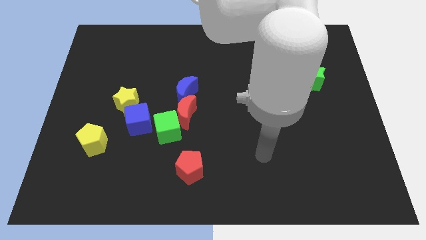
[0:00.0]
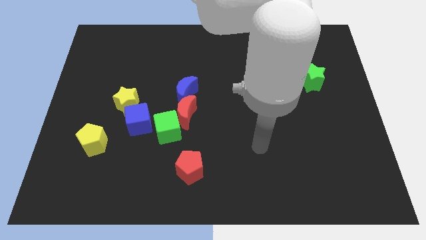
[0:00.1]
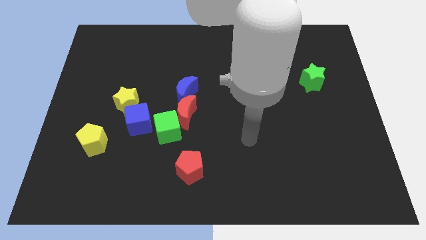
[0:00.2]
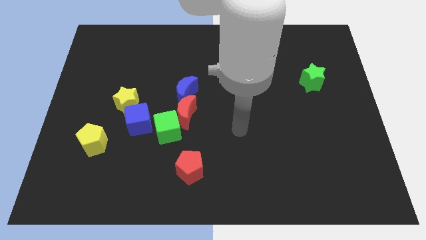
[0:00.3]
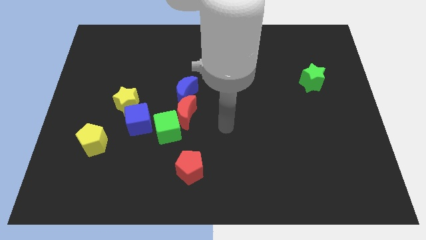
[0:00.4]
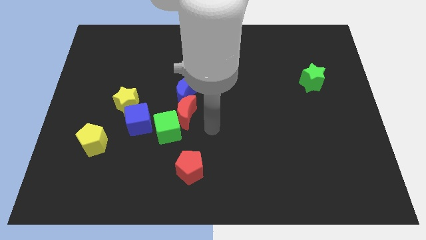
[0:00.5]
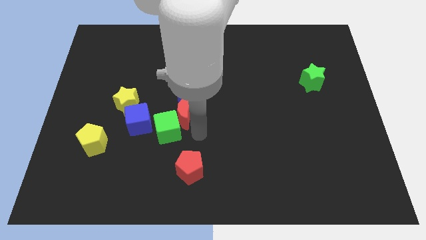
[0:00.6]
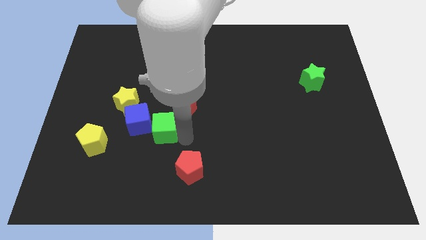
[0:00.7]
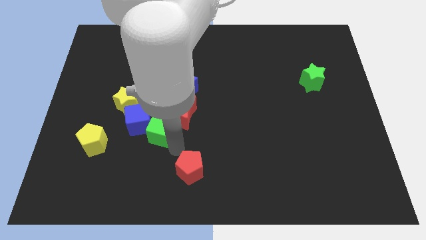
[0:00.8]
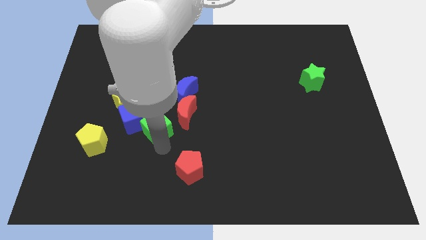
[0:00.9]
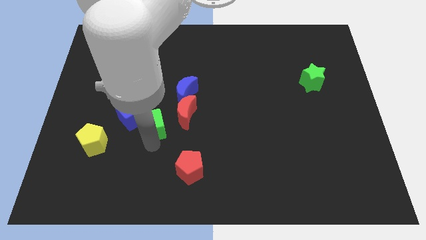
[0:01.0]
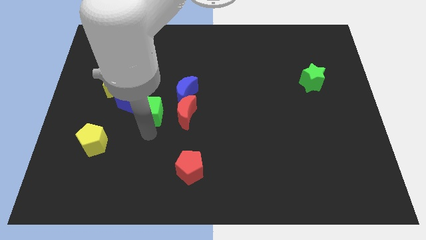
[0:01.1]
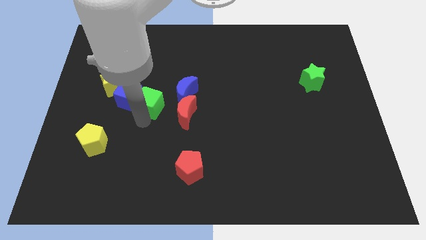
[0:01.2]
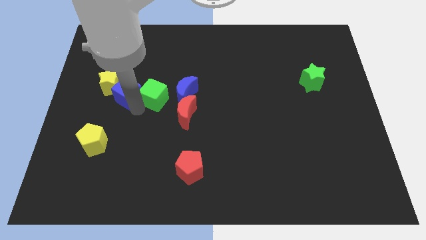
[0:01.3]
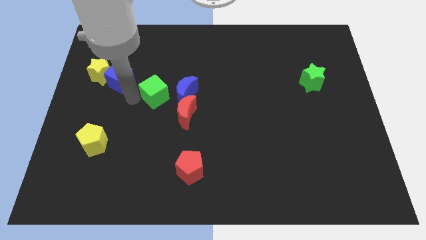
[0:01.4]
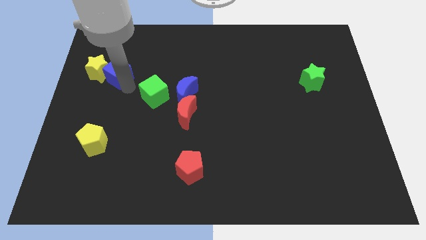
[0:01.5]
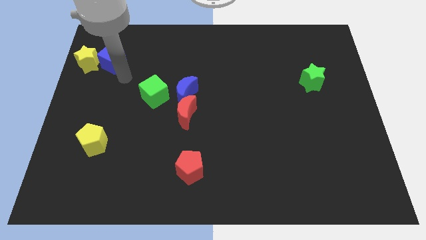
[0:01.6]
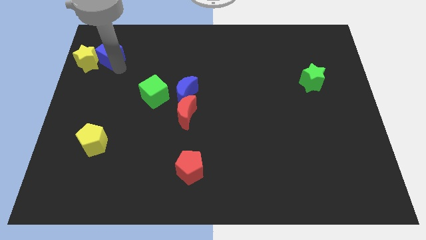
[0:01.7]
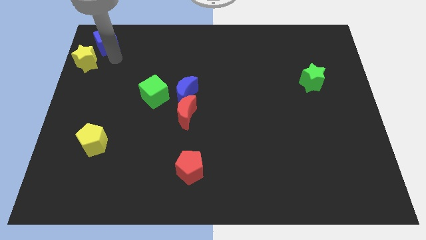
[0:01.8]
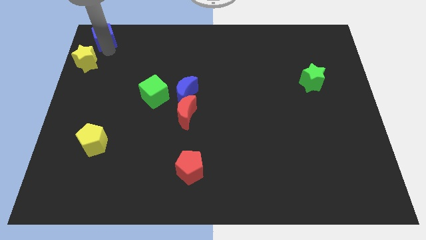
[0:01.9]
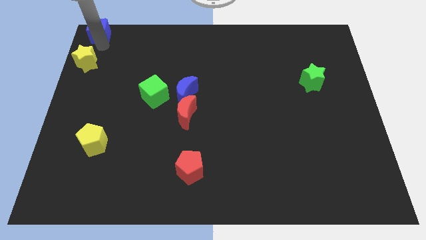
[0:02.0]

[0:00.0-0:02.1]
pull the yellow star apart from the blue cube

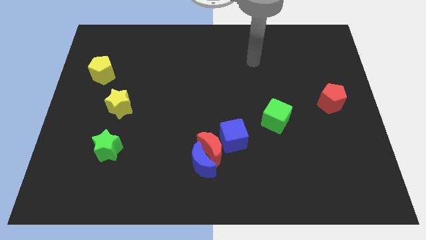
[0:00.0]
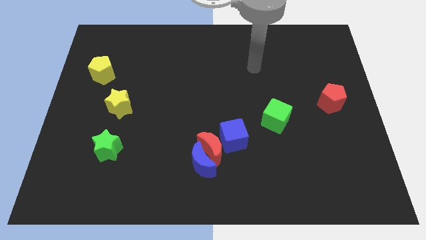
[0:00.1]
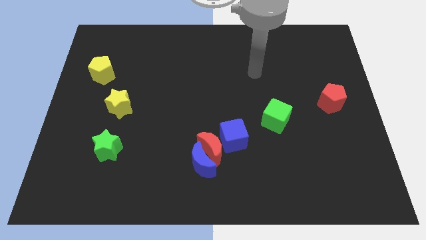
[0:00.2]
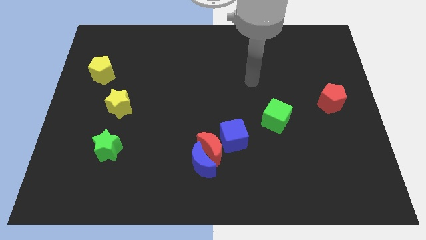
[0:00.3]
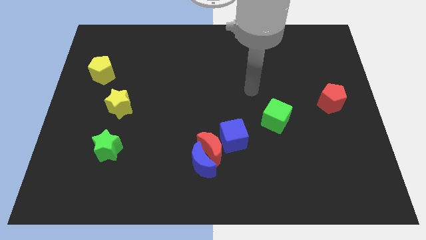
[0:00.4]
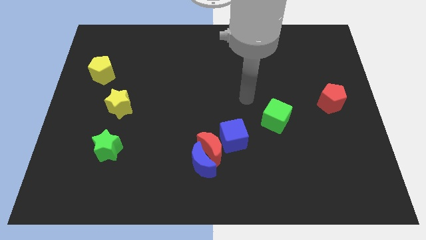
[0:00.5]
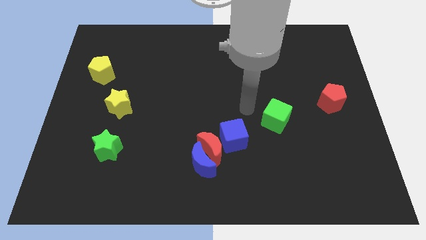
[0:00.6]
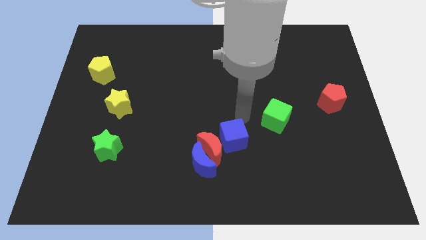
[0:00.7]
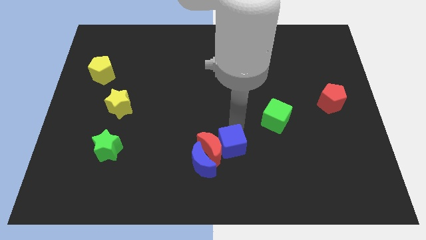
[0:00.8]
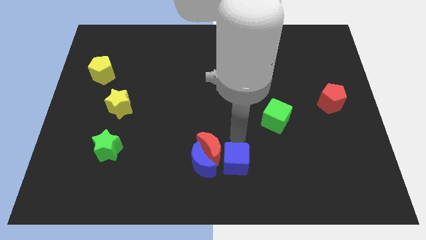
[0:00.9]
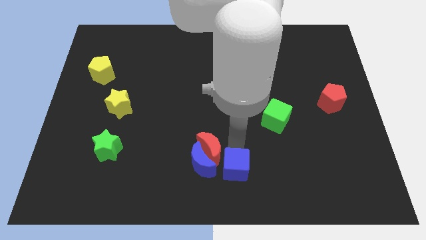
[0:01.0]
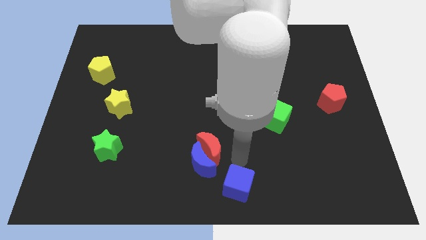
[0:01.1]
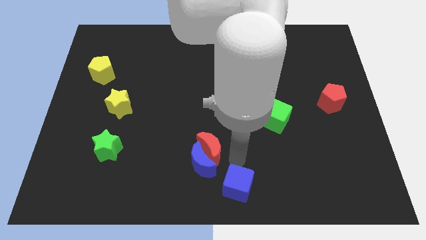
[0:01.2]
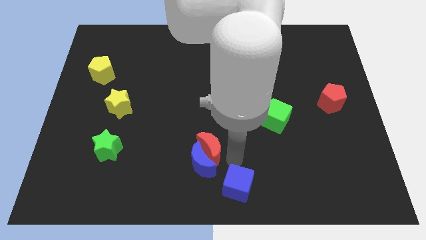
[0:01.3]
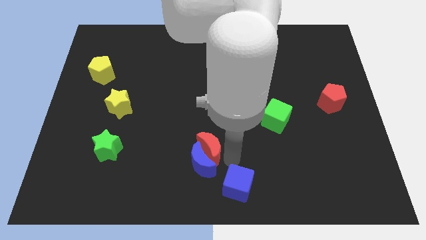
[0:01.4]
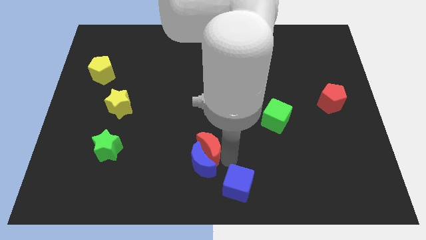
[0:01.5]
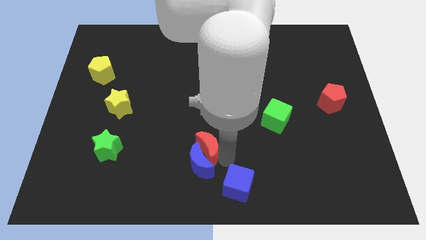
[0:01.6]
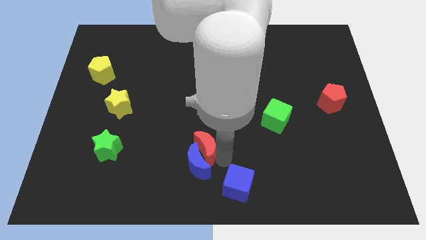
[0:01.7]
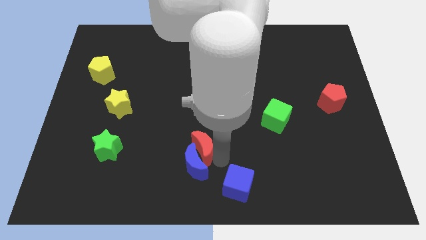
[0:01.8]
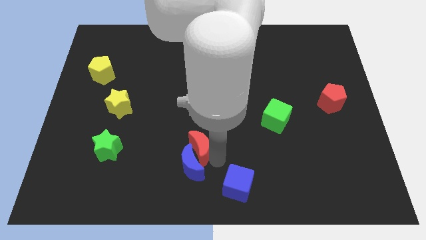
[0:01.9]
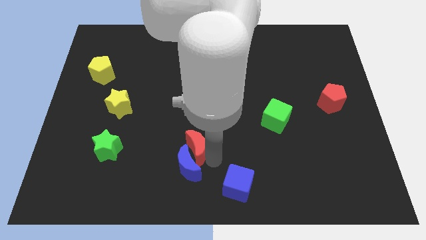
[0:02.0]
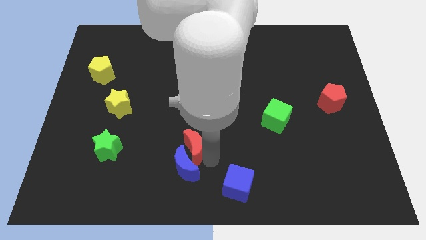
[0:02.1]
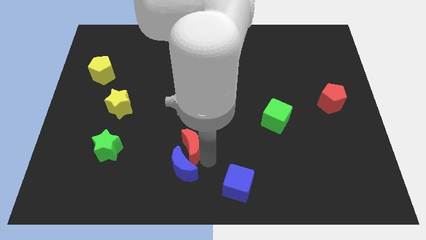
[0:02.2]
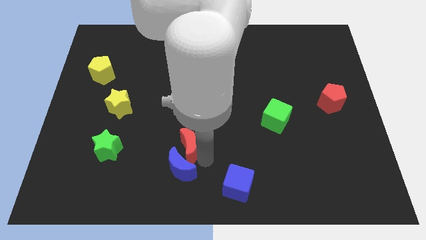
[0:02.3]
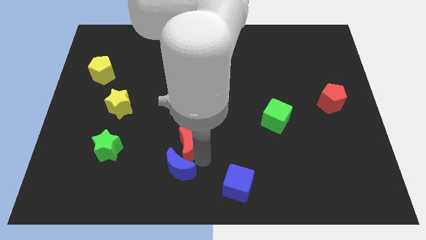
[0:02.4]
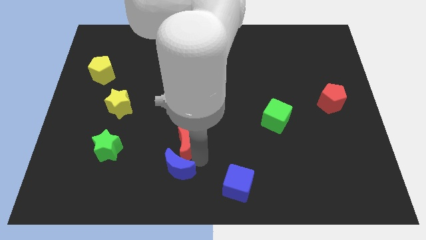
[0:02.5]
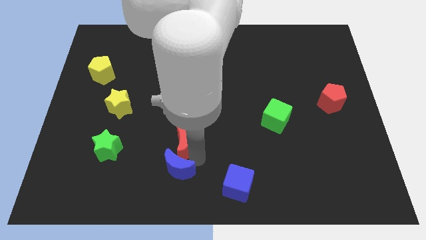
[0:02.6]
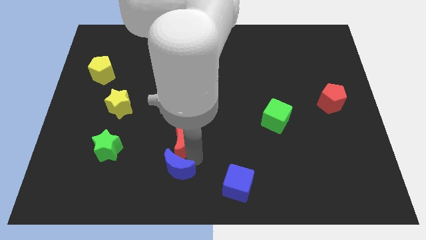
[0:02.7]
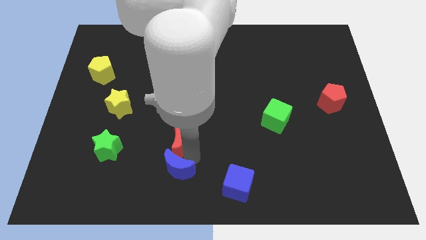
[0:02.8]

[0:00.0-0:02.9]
move the red moon away from the blue moon and blue cube

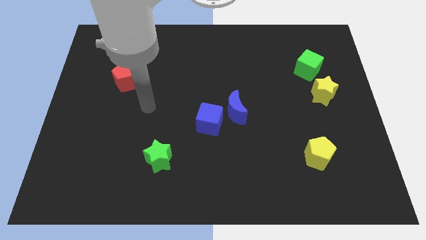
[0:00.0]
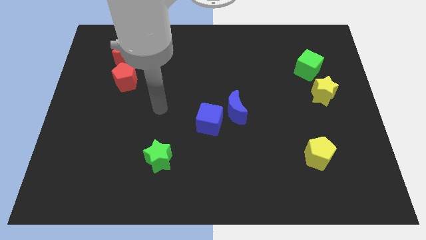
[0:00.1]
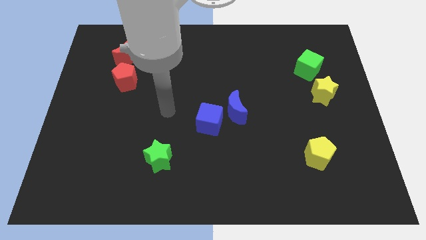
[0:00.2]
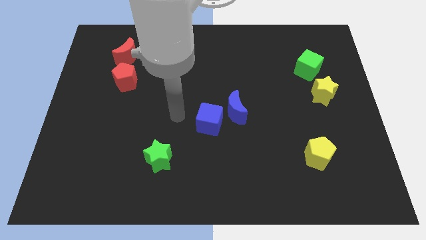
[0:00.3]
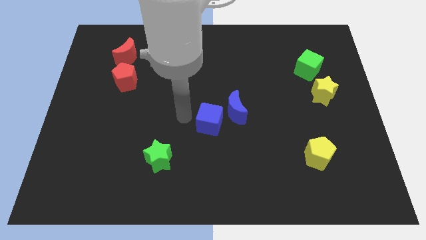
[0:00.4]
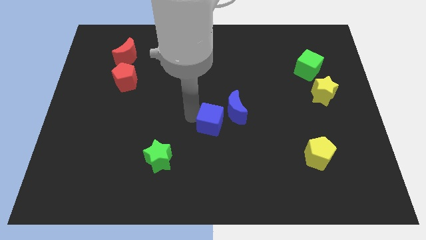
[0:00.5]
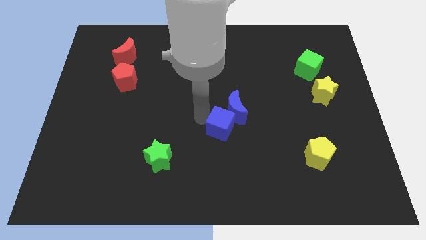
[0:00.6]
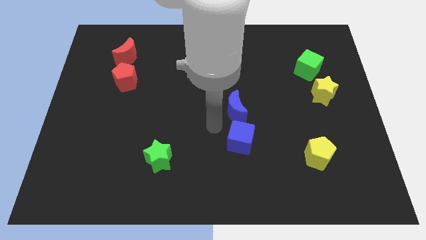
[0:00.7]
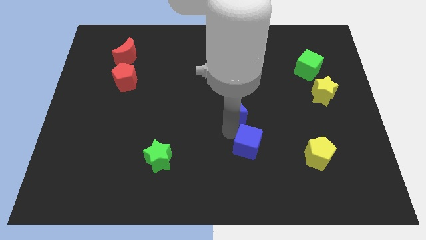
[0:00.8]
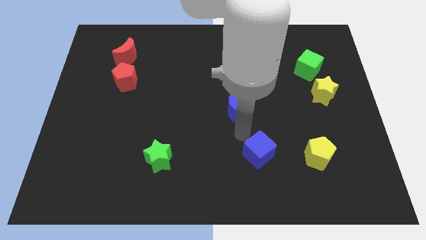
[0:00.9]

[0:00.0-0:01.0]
separate the blue moon from the blue cube

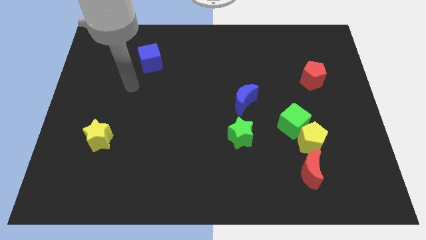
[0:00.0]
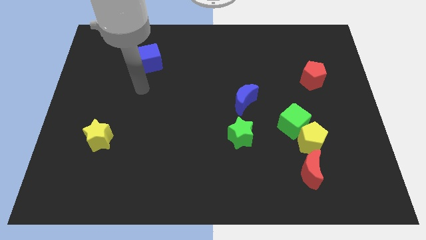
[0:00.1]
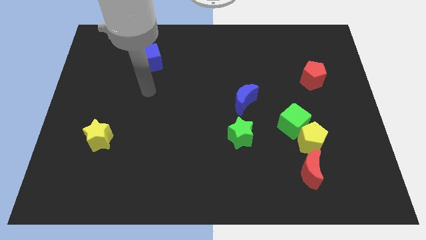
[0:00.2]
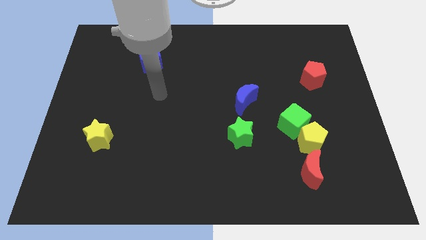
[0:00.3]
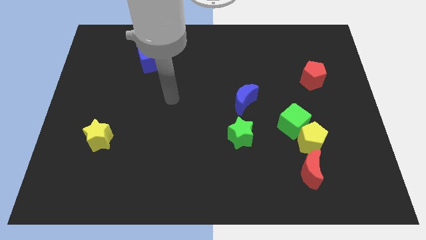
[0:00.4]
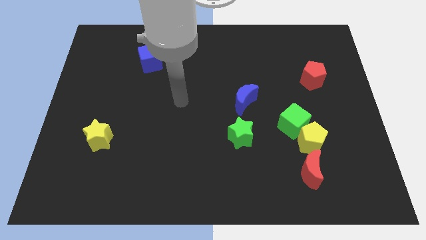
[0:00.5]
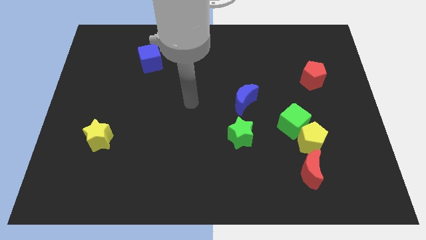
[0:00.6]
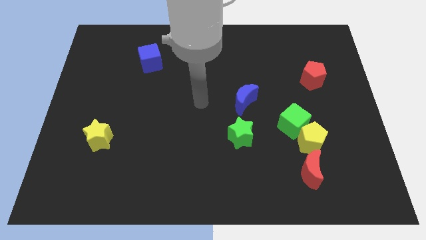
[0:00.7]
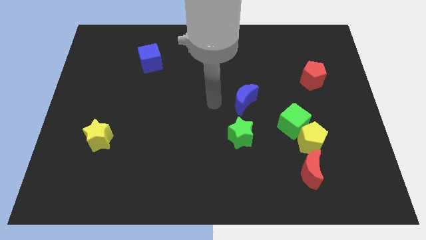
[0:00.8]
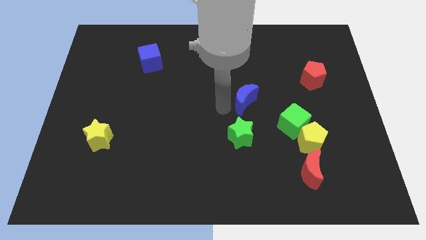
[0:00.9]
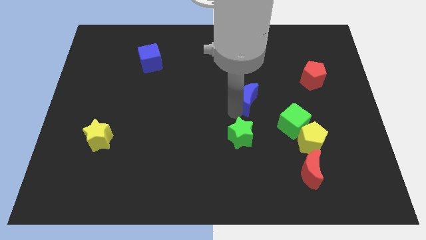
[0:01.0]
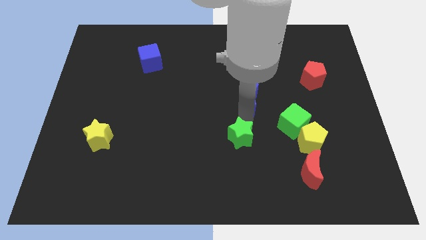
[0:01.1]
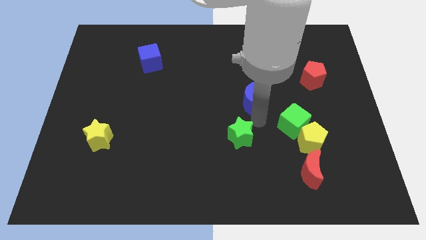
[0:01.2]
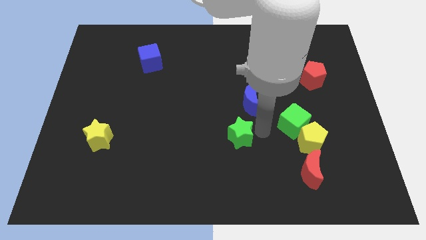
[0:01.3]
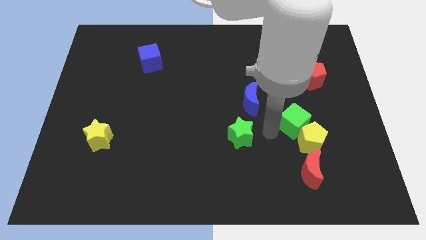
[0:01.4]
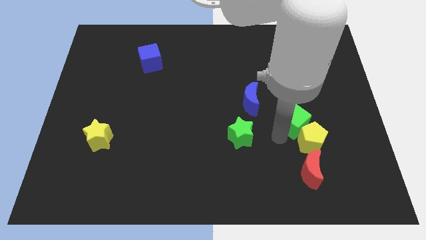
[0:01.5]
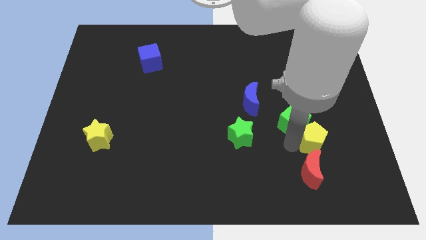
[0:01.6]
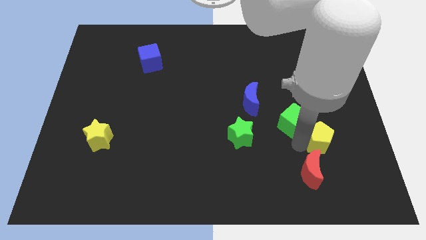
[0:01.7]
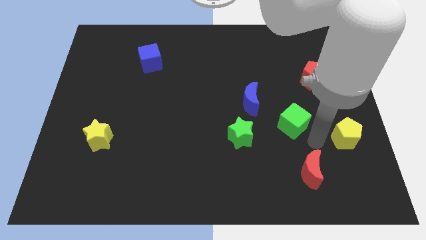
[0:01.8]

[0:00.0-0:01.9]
separate the green cube from the yellow pentagon

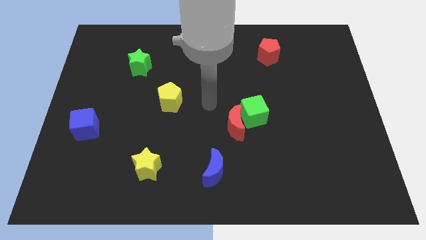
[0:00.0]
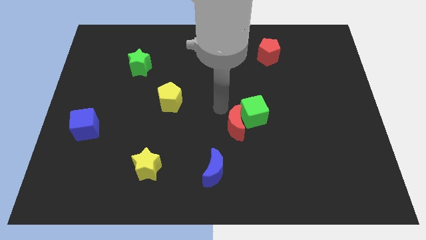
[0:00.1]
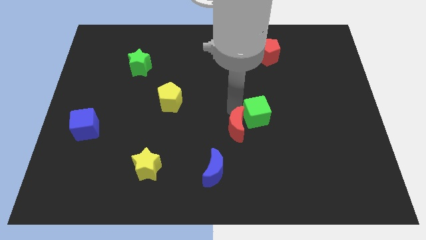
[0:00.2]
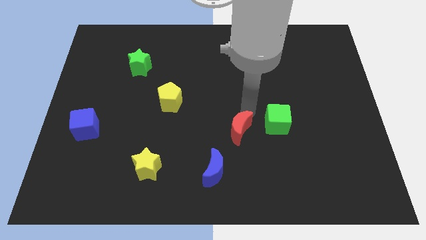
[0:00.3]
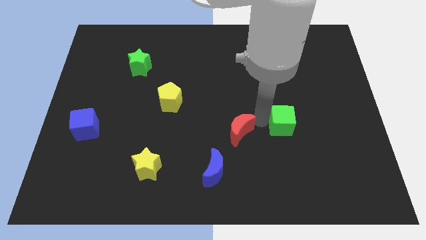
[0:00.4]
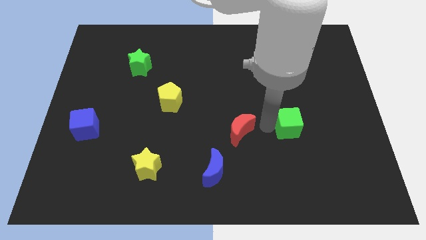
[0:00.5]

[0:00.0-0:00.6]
pull the red moon apart from the green cube

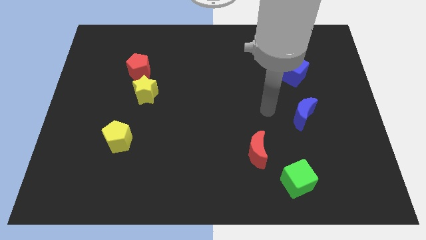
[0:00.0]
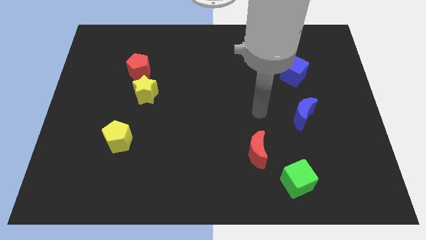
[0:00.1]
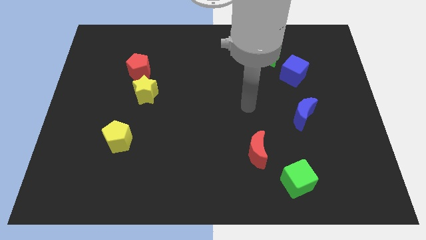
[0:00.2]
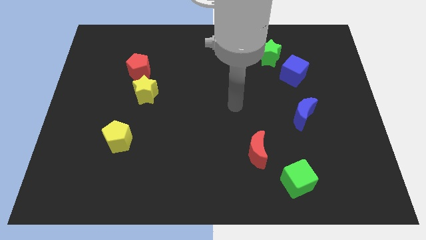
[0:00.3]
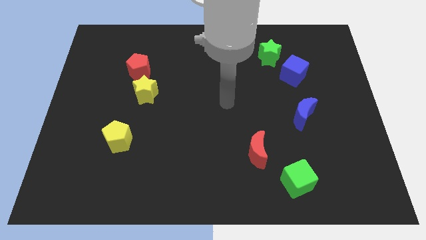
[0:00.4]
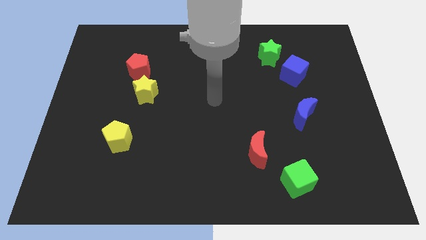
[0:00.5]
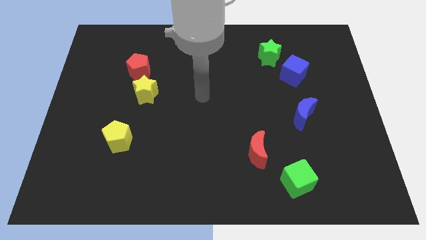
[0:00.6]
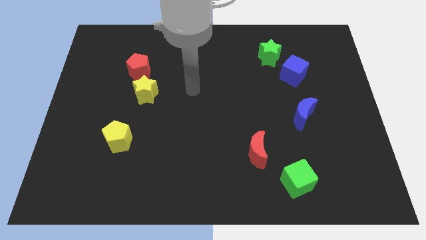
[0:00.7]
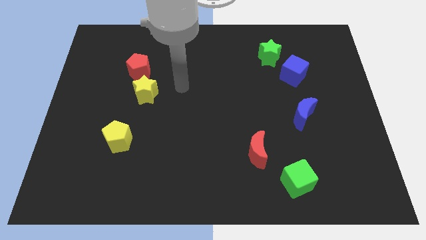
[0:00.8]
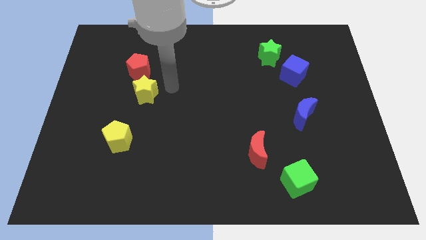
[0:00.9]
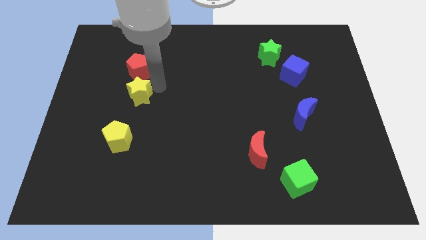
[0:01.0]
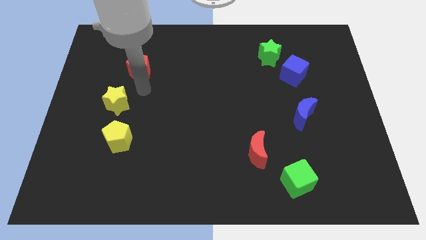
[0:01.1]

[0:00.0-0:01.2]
separate the red pentagon from the yellow star
